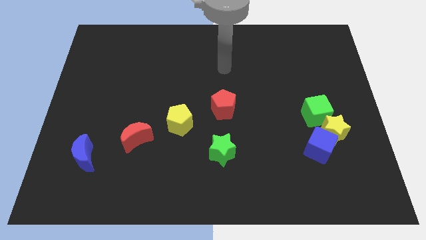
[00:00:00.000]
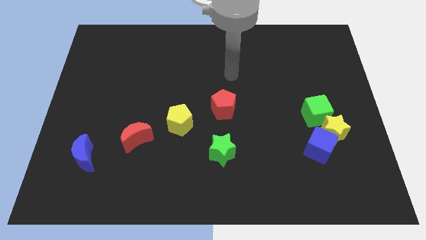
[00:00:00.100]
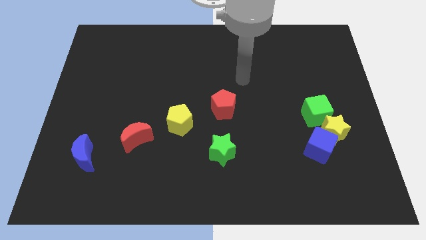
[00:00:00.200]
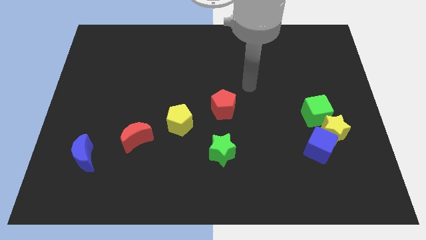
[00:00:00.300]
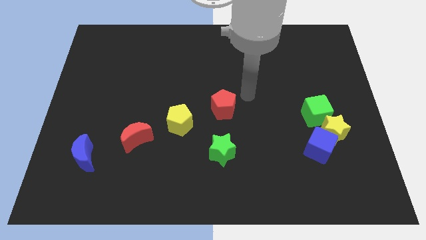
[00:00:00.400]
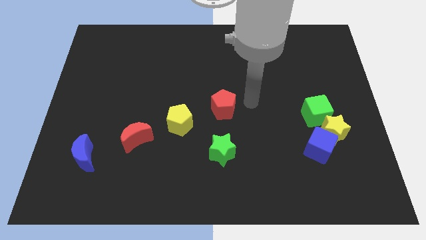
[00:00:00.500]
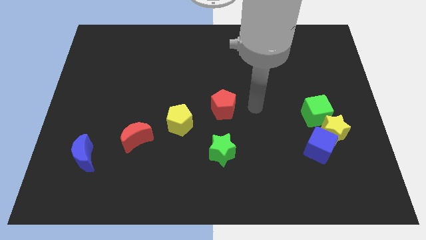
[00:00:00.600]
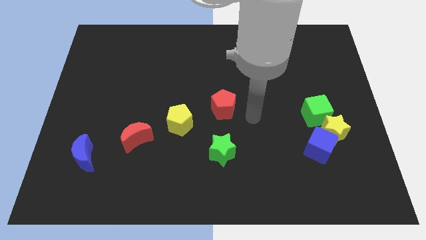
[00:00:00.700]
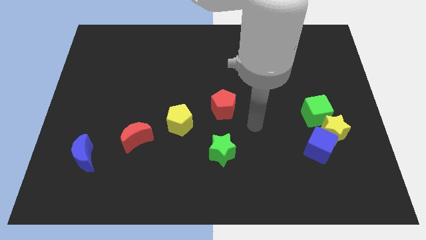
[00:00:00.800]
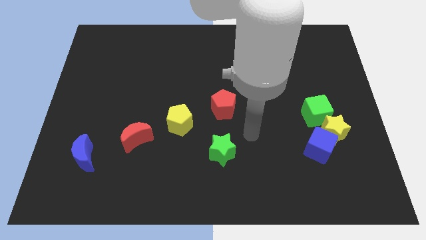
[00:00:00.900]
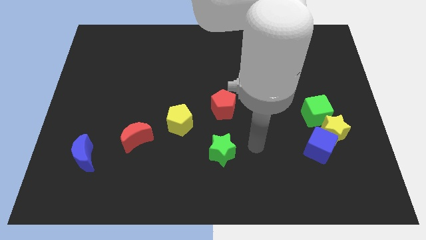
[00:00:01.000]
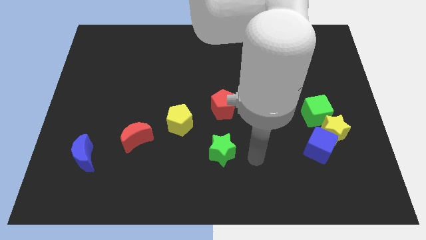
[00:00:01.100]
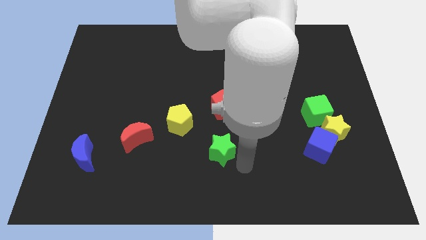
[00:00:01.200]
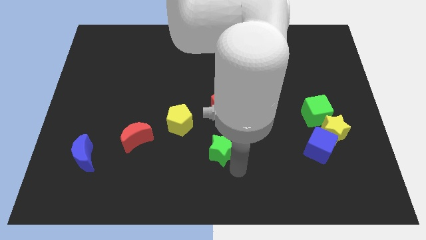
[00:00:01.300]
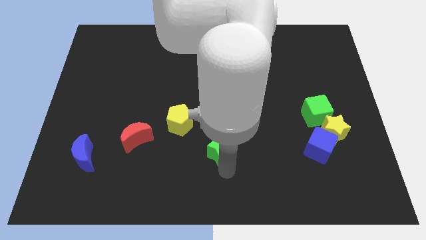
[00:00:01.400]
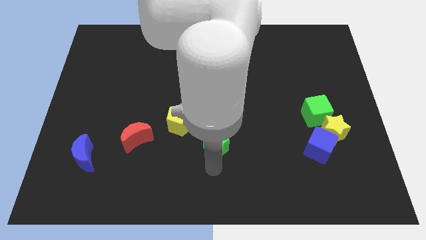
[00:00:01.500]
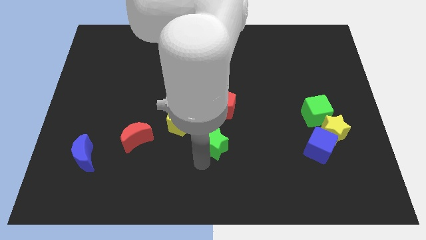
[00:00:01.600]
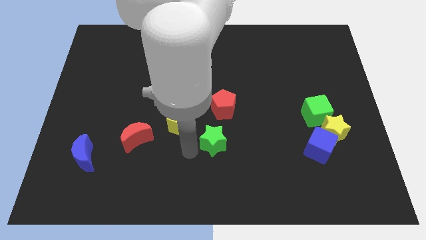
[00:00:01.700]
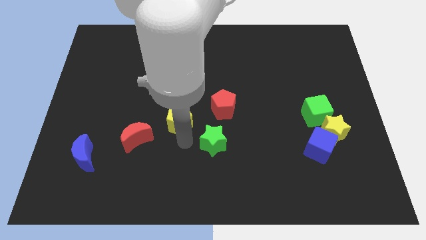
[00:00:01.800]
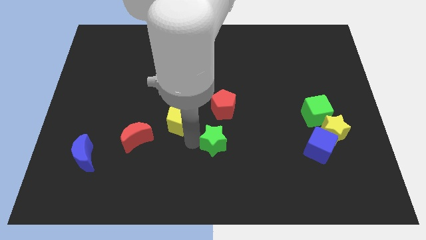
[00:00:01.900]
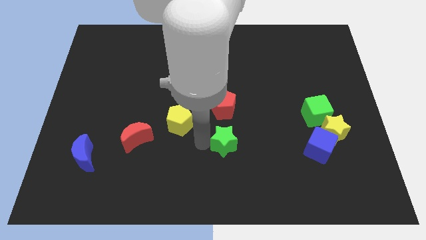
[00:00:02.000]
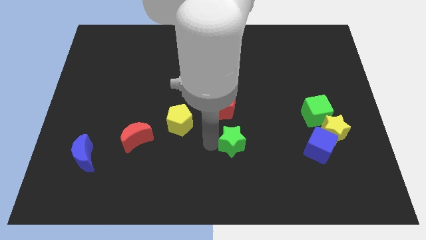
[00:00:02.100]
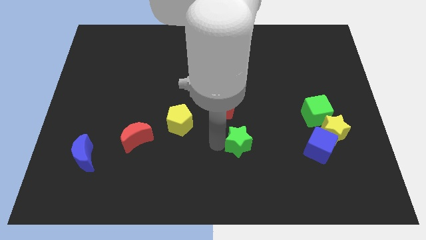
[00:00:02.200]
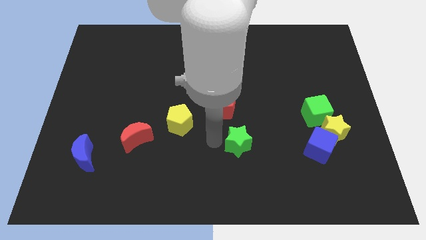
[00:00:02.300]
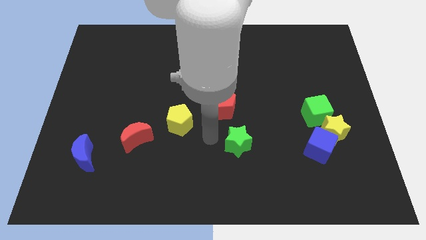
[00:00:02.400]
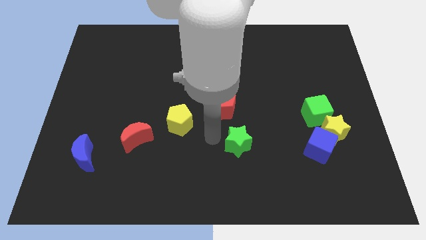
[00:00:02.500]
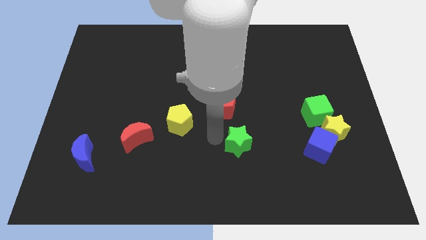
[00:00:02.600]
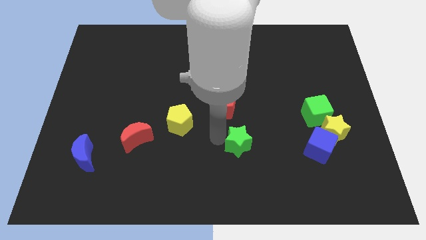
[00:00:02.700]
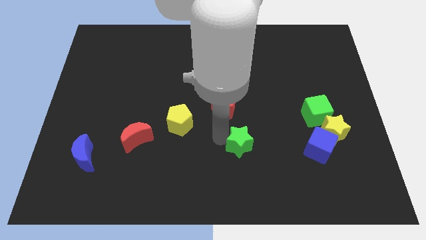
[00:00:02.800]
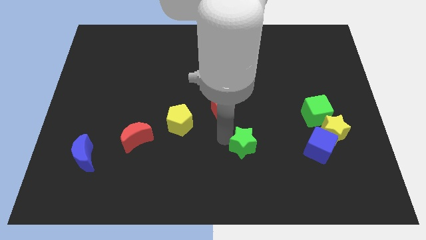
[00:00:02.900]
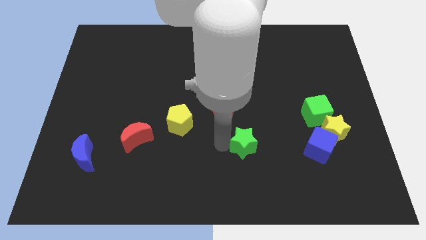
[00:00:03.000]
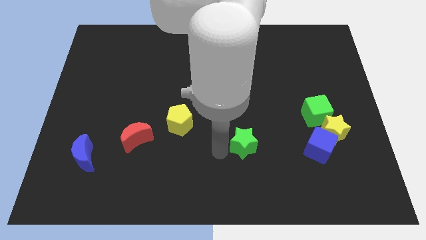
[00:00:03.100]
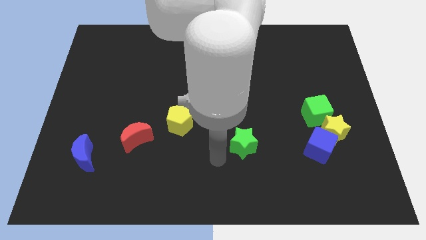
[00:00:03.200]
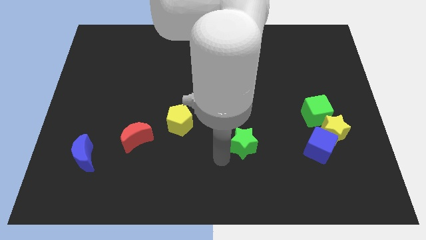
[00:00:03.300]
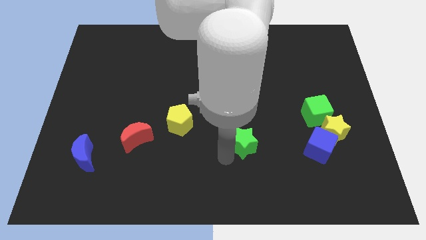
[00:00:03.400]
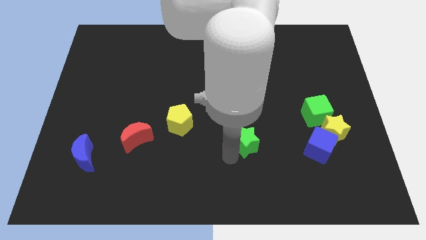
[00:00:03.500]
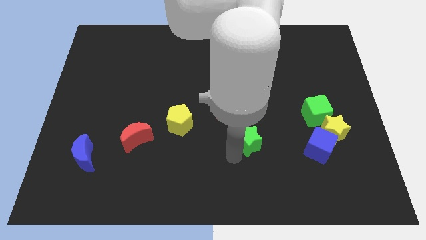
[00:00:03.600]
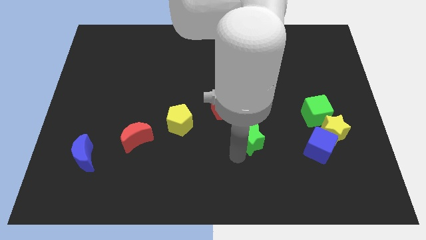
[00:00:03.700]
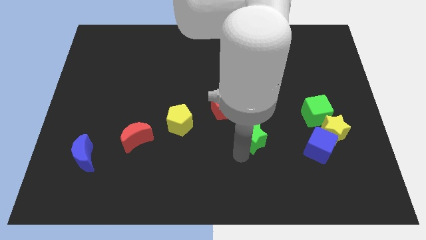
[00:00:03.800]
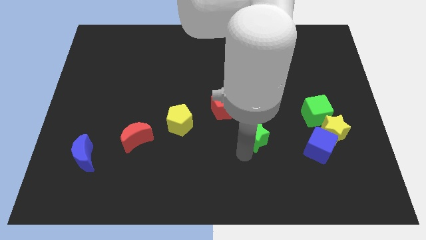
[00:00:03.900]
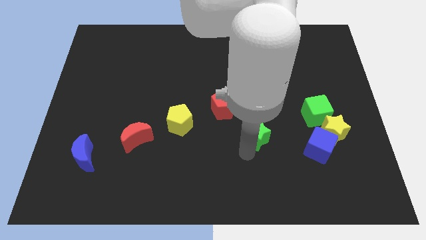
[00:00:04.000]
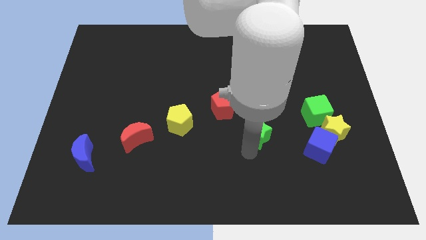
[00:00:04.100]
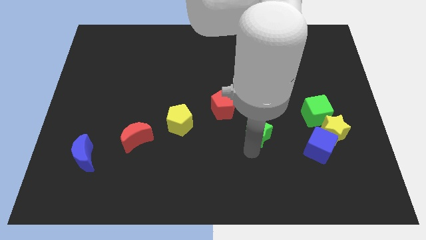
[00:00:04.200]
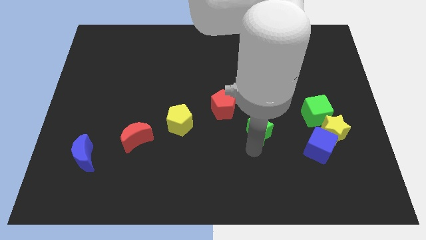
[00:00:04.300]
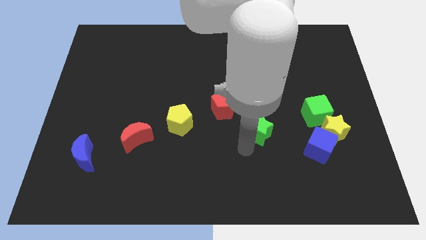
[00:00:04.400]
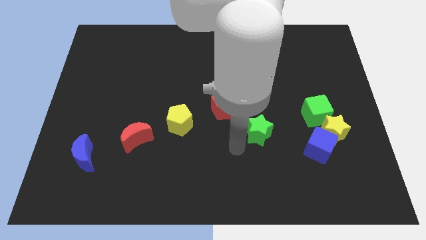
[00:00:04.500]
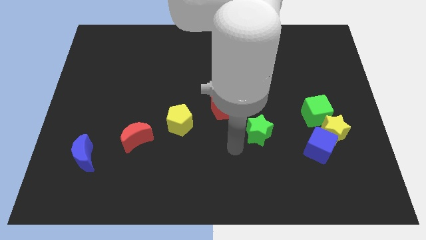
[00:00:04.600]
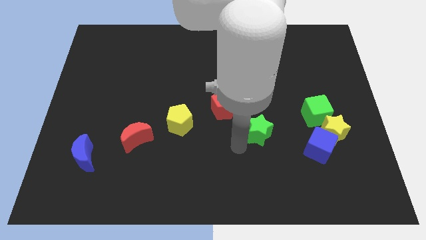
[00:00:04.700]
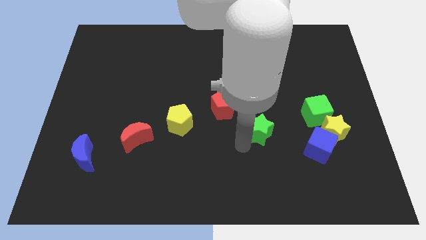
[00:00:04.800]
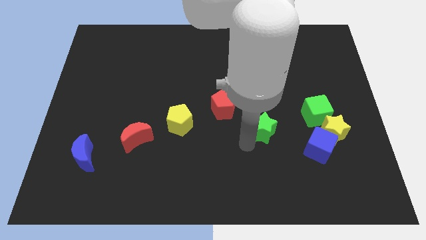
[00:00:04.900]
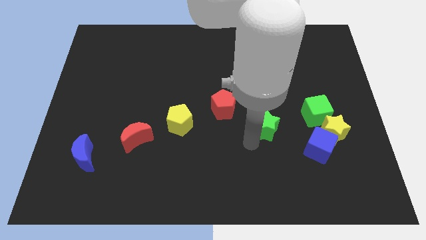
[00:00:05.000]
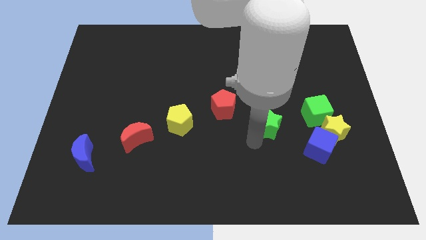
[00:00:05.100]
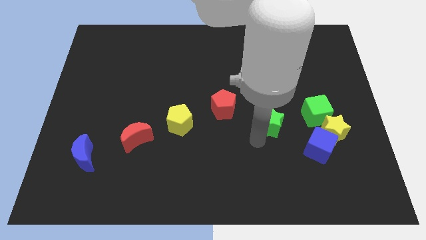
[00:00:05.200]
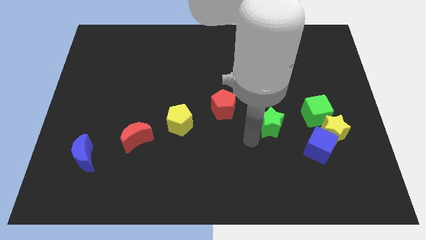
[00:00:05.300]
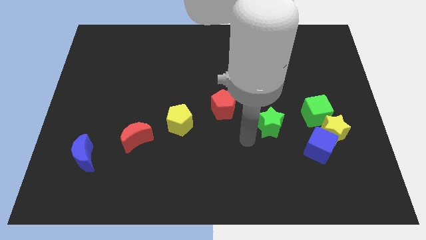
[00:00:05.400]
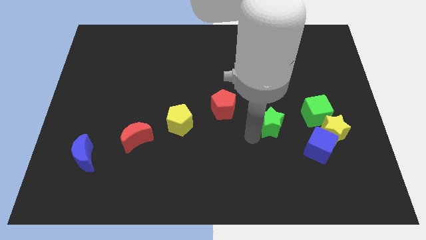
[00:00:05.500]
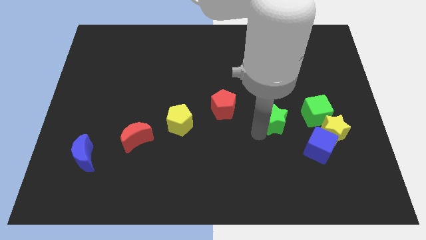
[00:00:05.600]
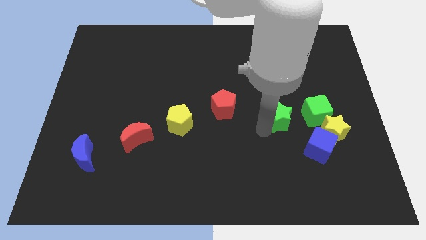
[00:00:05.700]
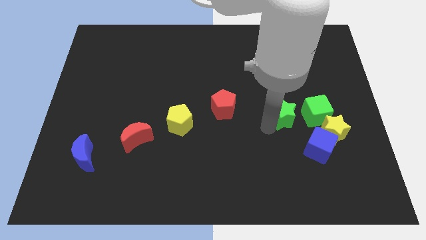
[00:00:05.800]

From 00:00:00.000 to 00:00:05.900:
move the green star to the top left of the yellow star

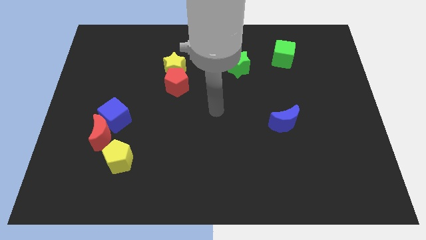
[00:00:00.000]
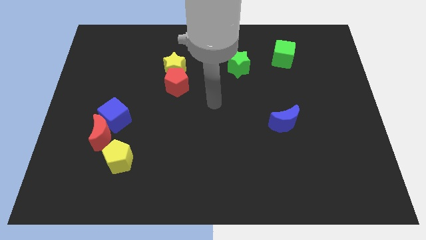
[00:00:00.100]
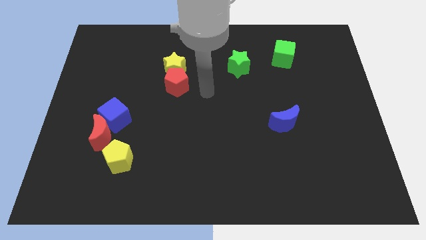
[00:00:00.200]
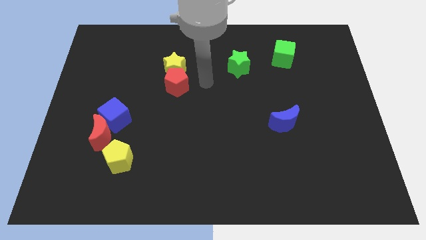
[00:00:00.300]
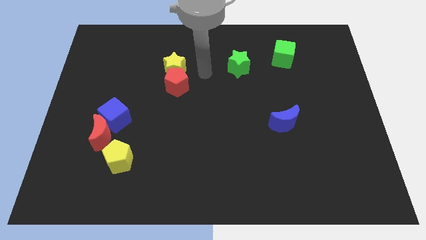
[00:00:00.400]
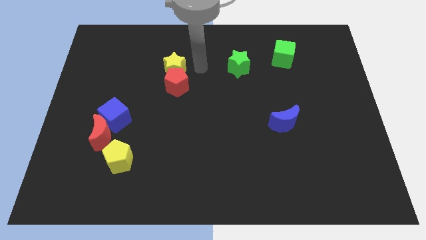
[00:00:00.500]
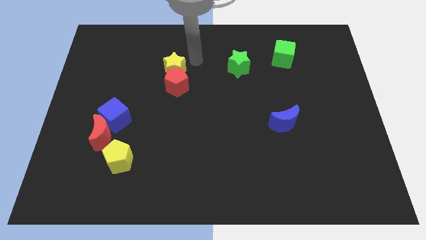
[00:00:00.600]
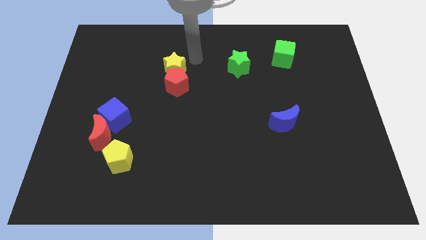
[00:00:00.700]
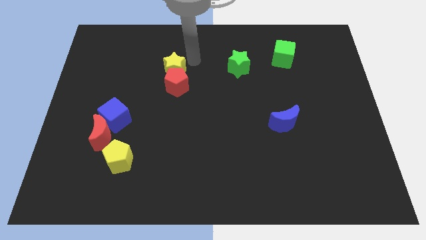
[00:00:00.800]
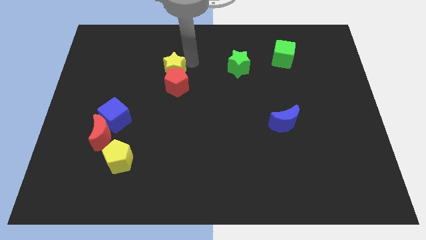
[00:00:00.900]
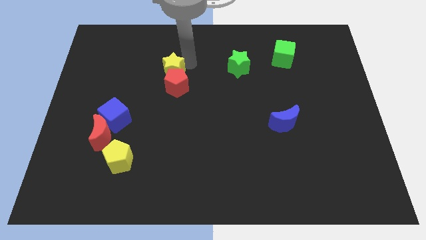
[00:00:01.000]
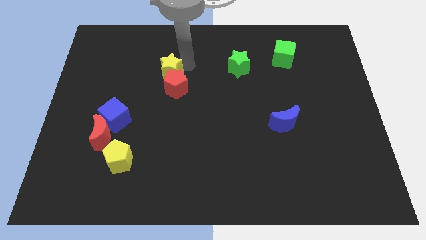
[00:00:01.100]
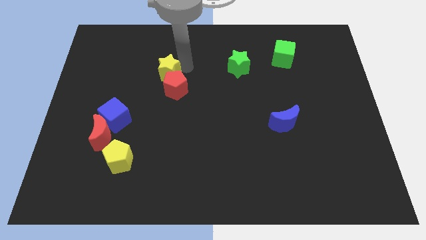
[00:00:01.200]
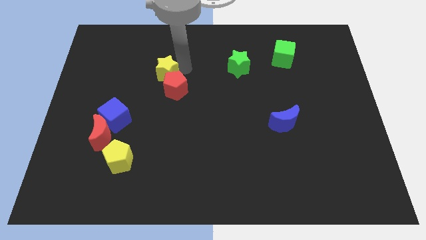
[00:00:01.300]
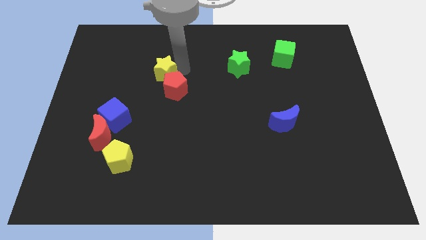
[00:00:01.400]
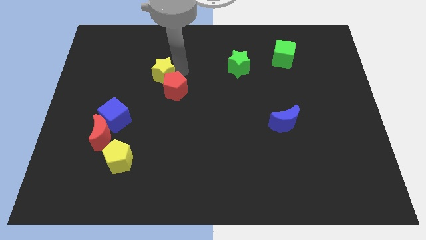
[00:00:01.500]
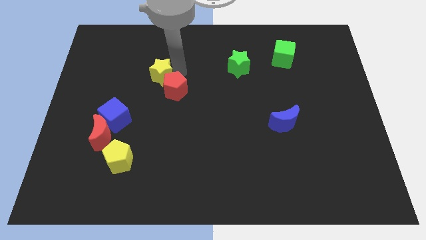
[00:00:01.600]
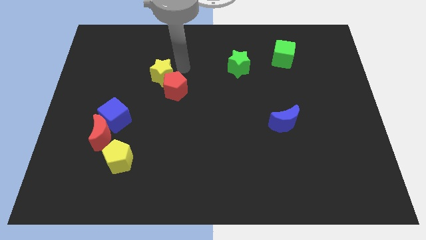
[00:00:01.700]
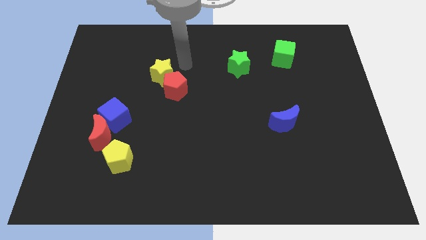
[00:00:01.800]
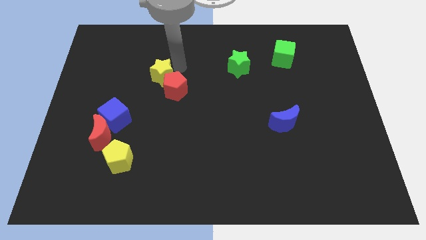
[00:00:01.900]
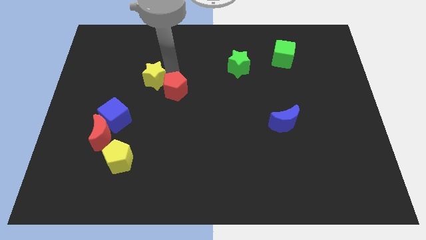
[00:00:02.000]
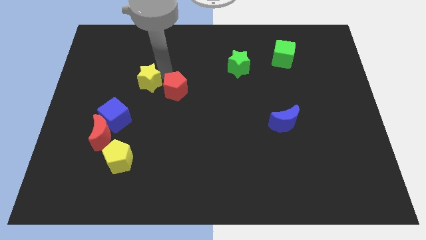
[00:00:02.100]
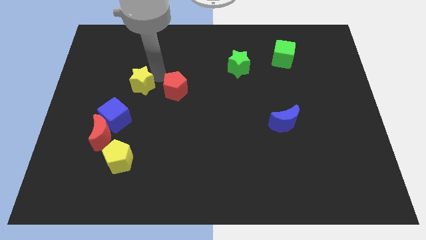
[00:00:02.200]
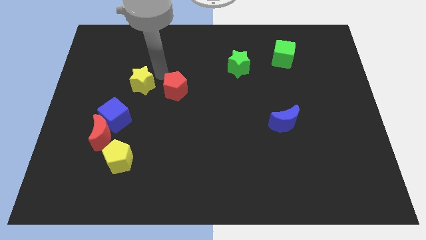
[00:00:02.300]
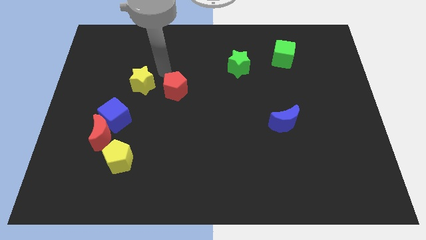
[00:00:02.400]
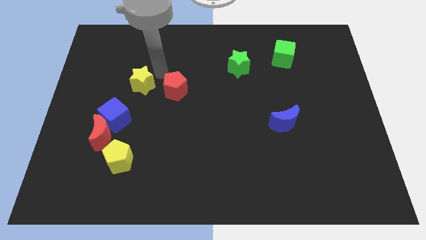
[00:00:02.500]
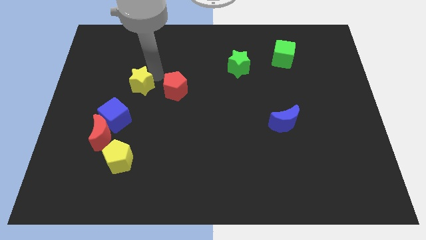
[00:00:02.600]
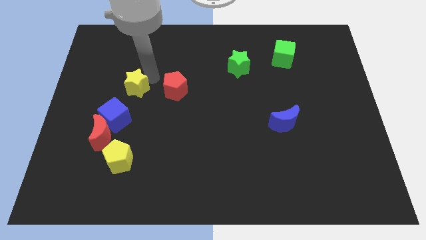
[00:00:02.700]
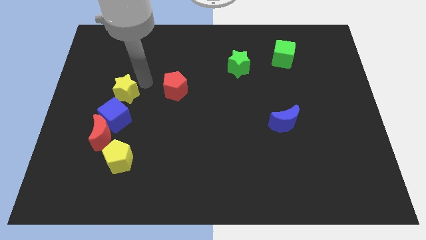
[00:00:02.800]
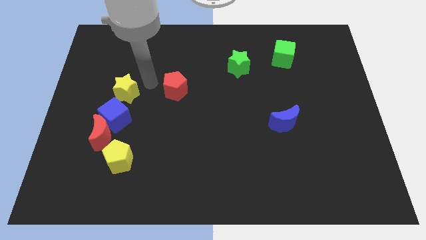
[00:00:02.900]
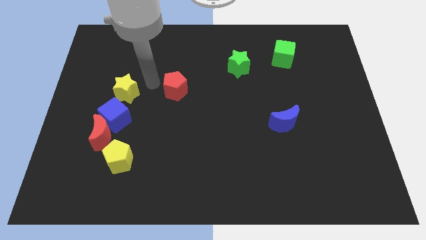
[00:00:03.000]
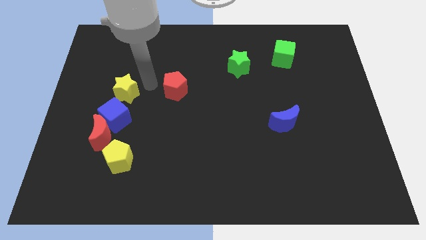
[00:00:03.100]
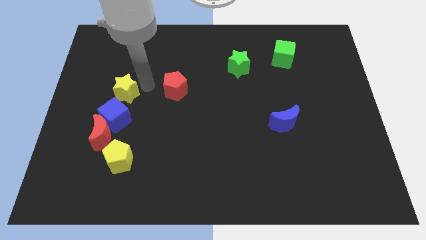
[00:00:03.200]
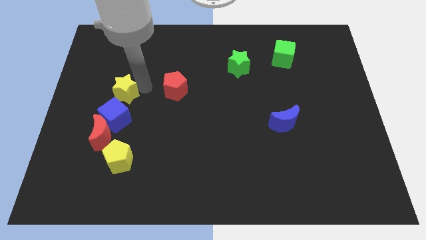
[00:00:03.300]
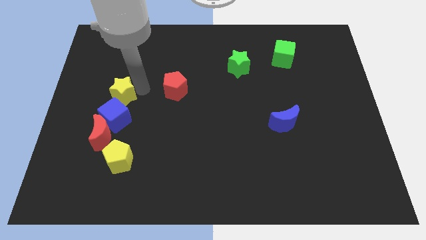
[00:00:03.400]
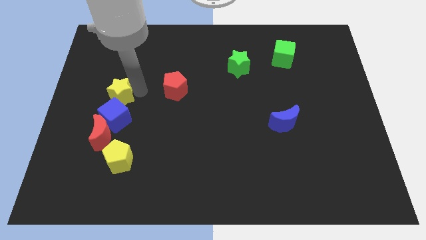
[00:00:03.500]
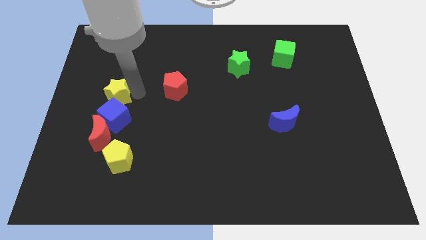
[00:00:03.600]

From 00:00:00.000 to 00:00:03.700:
push the yellow star to the top left side of the blue cube
